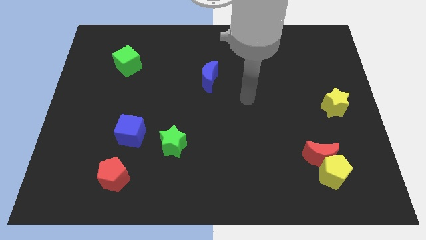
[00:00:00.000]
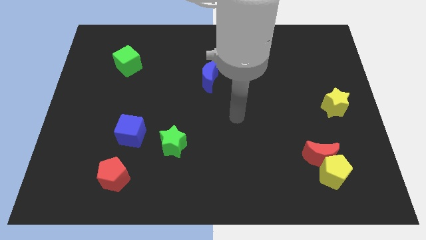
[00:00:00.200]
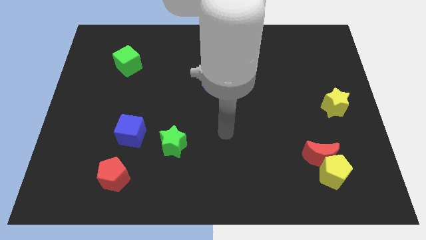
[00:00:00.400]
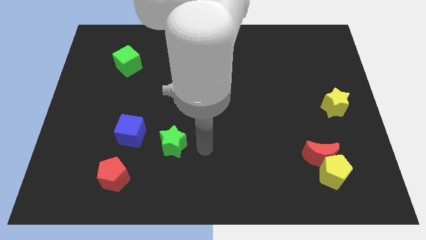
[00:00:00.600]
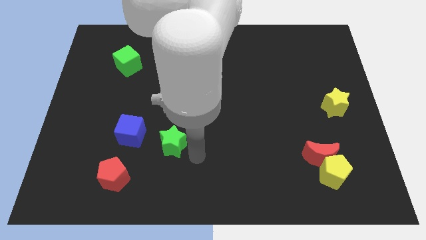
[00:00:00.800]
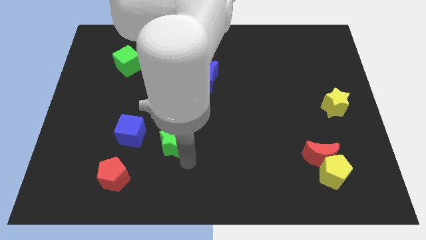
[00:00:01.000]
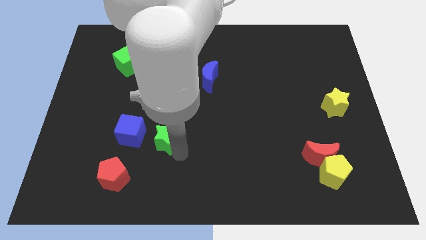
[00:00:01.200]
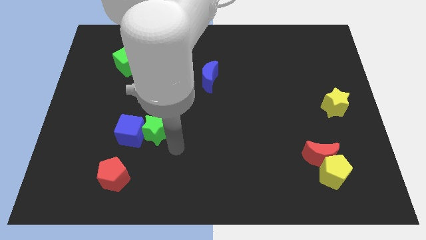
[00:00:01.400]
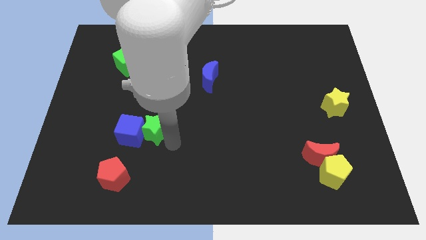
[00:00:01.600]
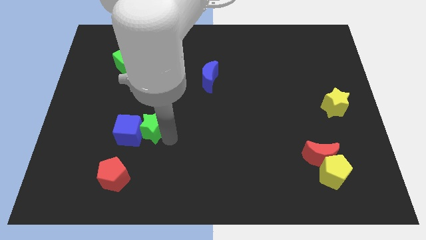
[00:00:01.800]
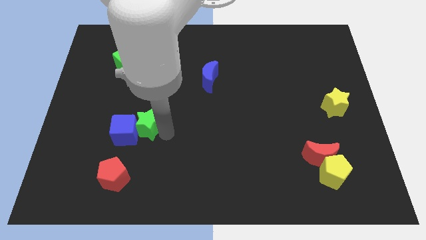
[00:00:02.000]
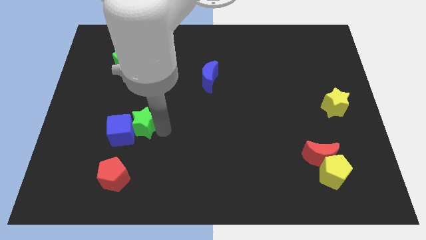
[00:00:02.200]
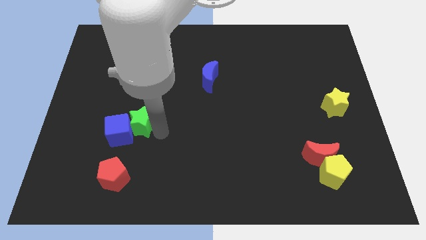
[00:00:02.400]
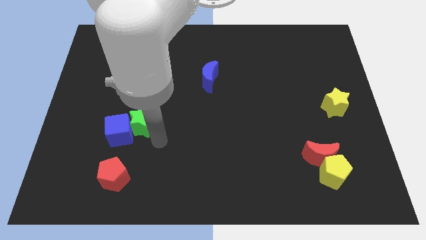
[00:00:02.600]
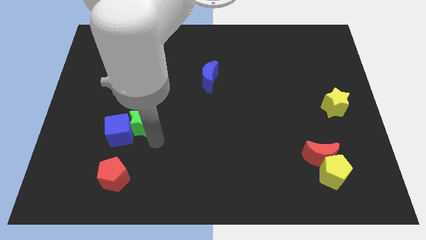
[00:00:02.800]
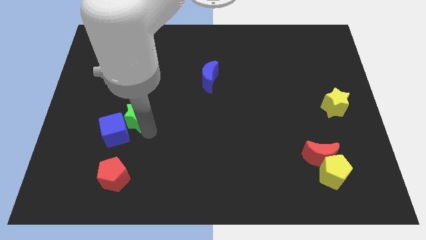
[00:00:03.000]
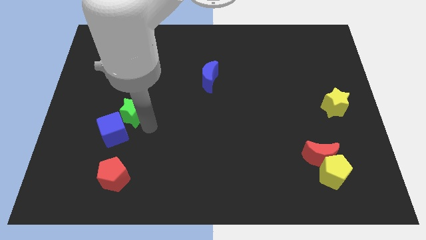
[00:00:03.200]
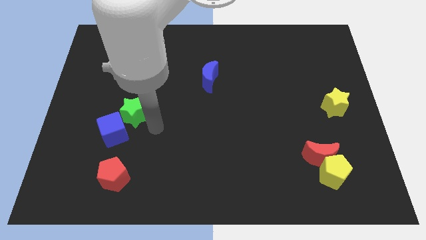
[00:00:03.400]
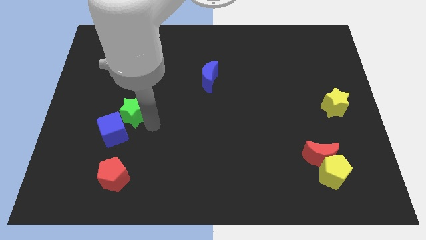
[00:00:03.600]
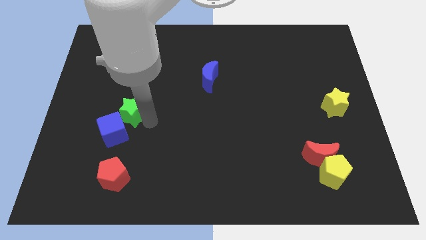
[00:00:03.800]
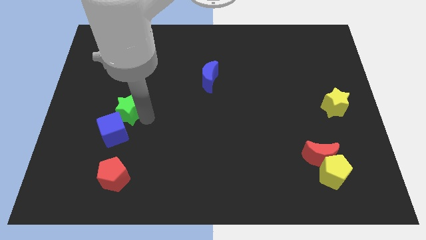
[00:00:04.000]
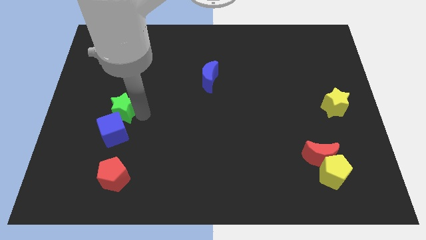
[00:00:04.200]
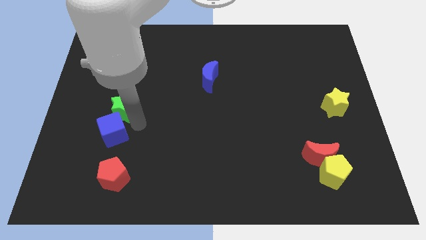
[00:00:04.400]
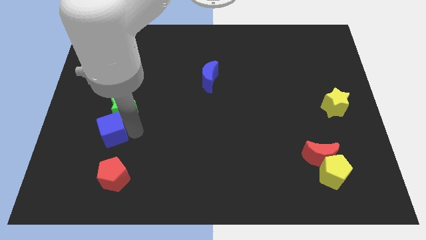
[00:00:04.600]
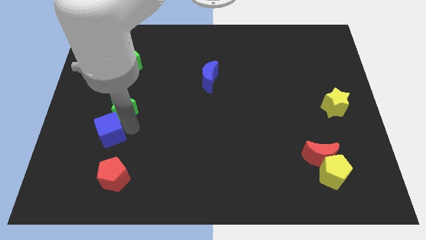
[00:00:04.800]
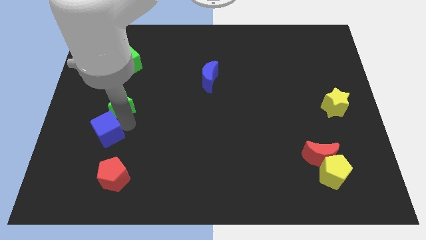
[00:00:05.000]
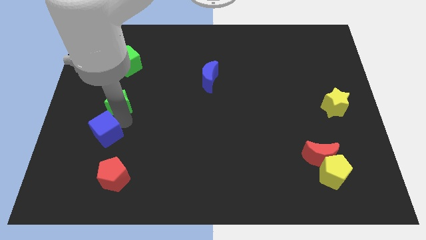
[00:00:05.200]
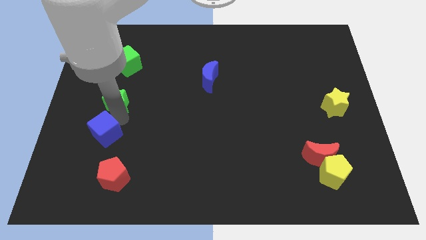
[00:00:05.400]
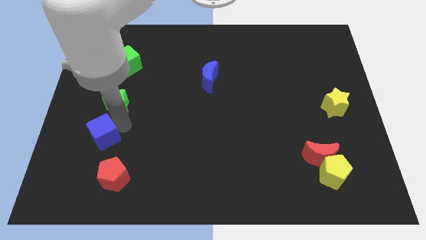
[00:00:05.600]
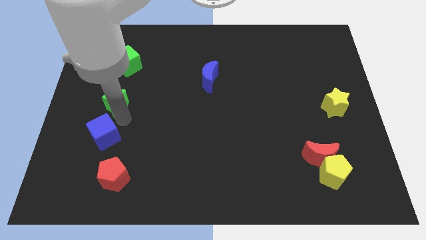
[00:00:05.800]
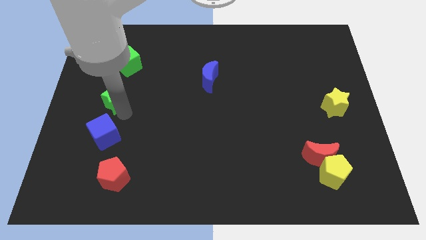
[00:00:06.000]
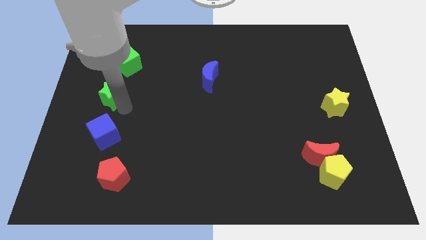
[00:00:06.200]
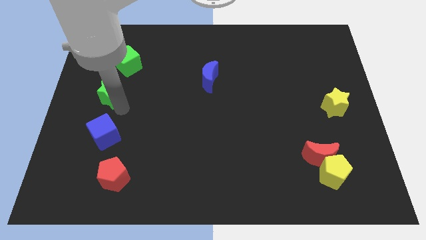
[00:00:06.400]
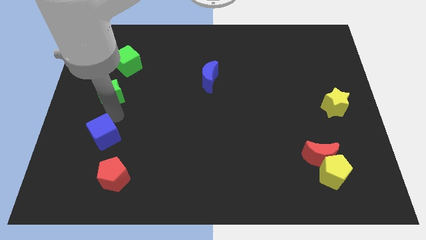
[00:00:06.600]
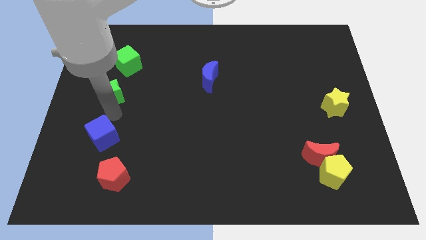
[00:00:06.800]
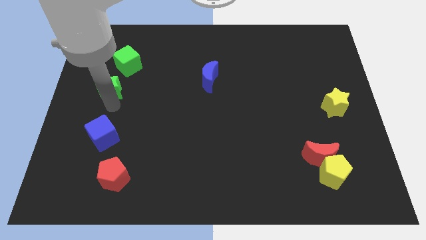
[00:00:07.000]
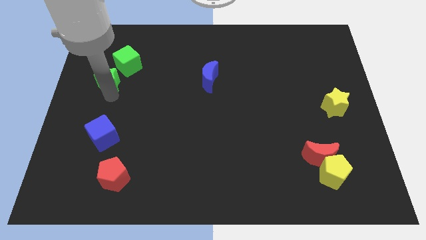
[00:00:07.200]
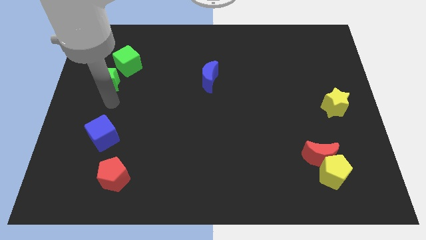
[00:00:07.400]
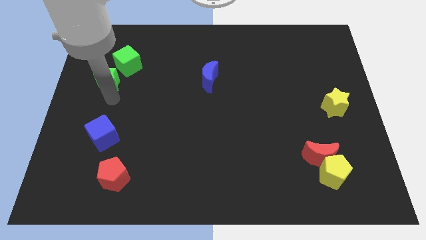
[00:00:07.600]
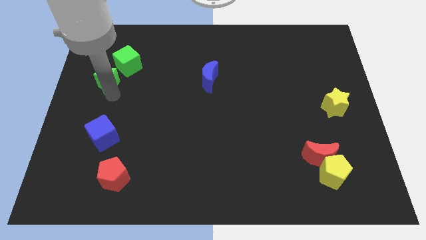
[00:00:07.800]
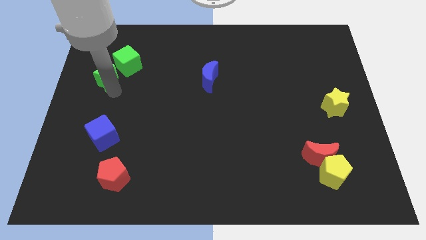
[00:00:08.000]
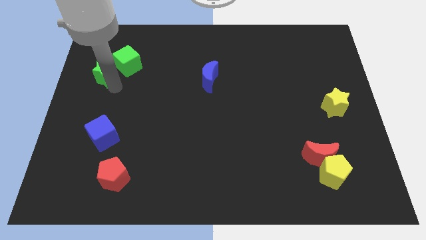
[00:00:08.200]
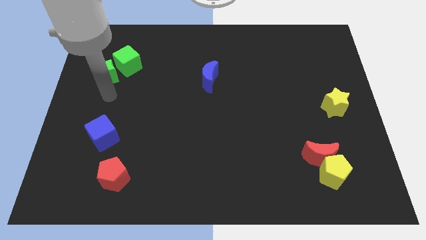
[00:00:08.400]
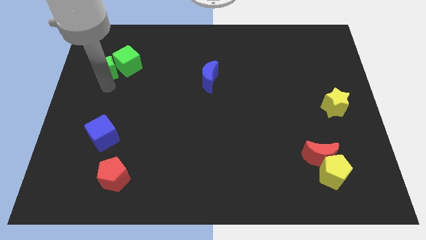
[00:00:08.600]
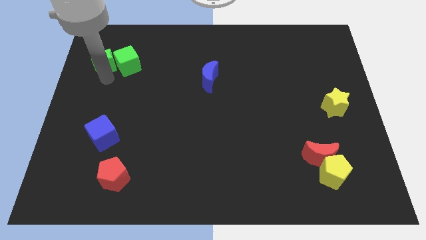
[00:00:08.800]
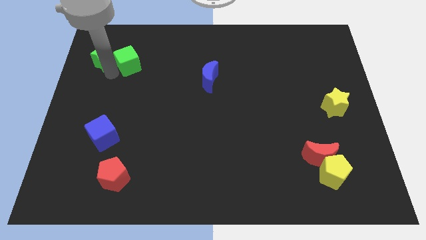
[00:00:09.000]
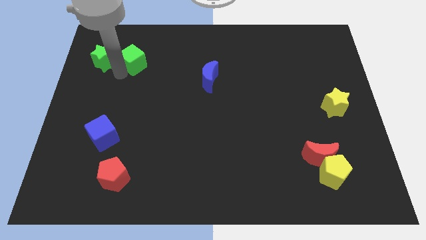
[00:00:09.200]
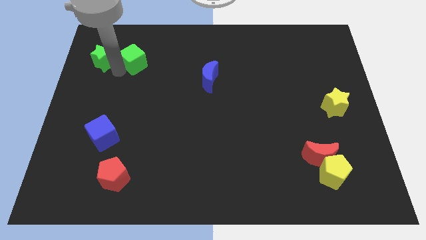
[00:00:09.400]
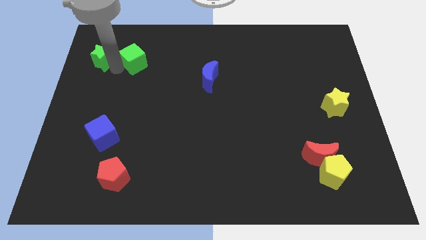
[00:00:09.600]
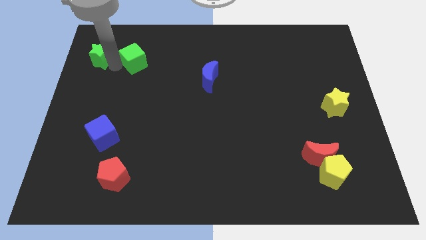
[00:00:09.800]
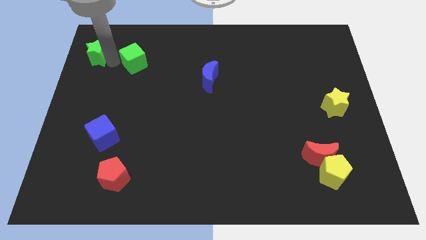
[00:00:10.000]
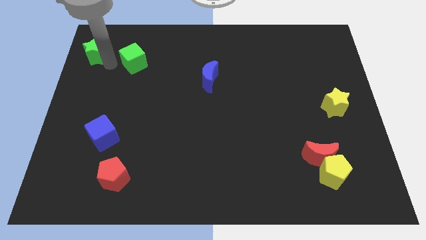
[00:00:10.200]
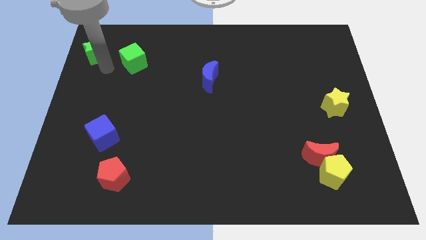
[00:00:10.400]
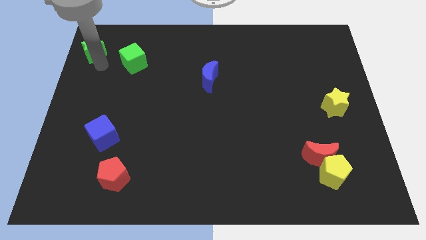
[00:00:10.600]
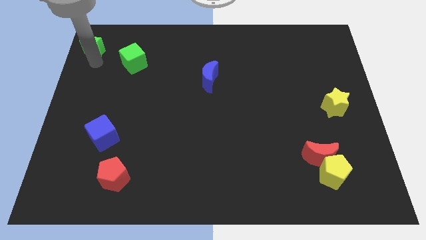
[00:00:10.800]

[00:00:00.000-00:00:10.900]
push the green star to the top left of the board

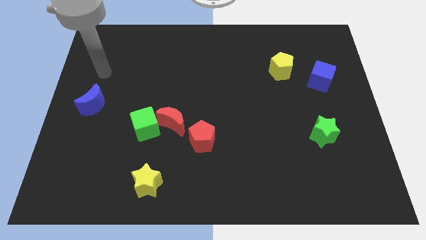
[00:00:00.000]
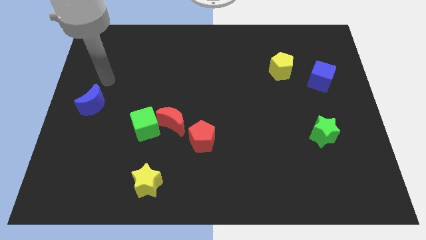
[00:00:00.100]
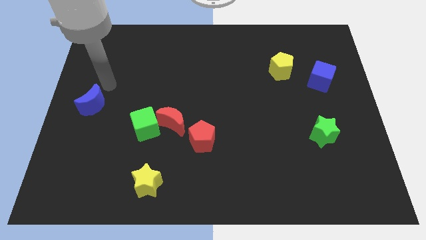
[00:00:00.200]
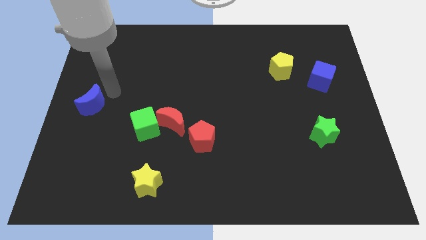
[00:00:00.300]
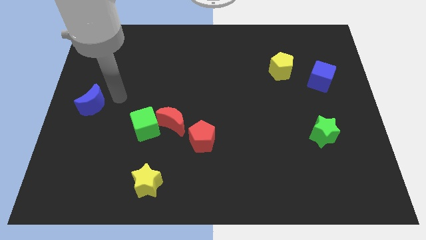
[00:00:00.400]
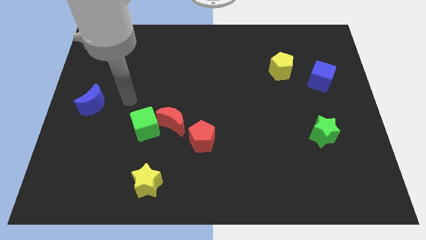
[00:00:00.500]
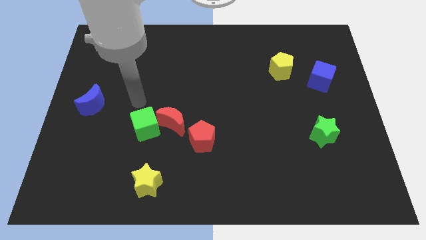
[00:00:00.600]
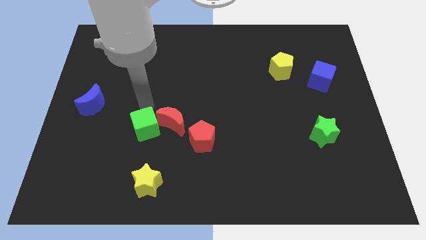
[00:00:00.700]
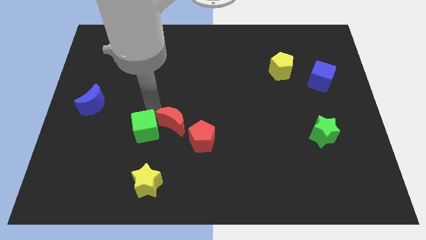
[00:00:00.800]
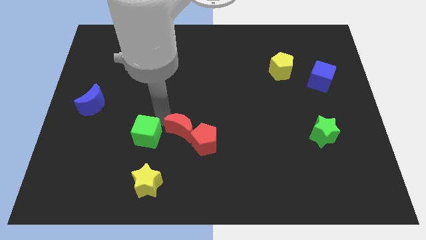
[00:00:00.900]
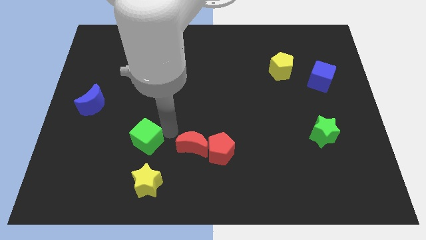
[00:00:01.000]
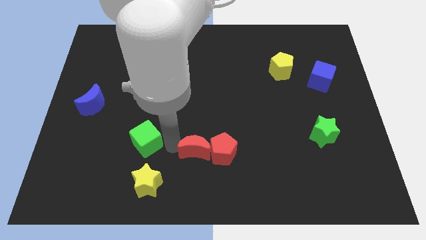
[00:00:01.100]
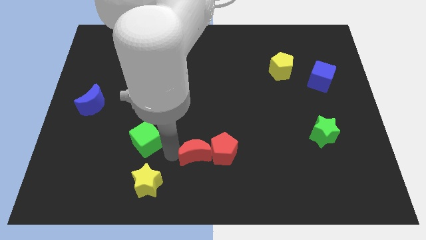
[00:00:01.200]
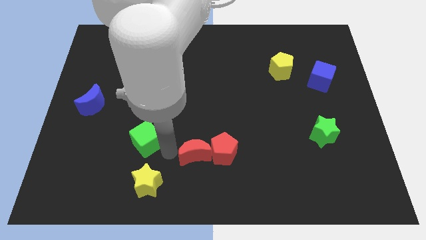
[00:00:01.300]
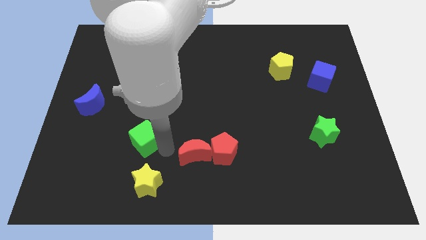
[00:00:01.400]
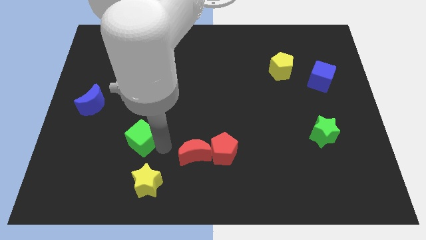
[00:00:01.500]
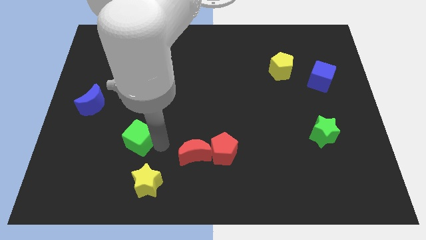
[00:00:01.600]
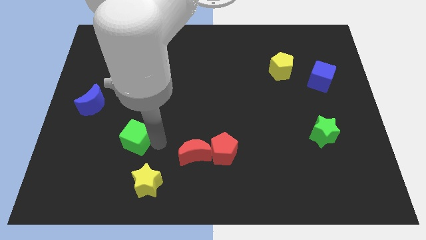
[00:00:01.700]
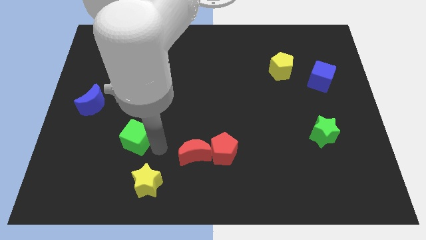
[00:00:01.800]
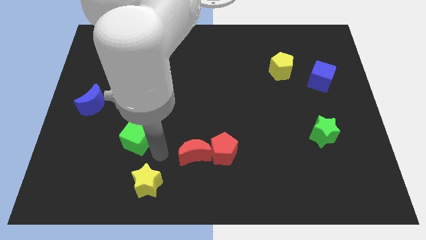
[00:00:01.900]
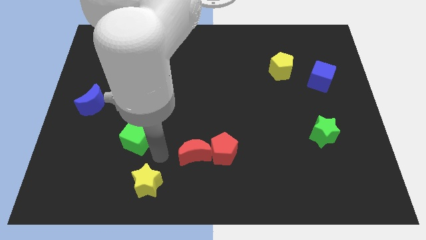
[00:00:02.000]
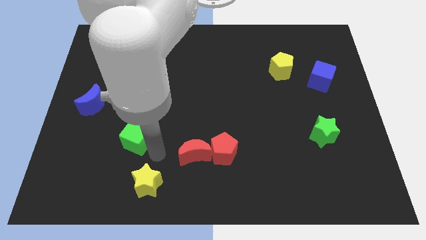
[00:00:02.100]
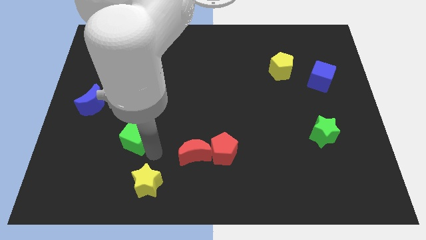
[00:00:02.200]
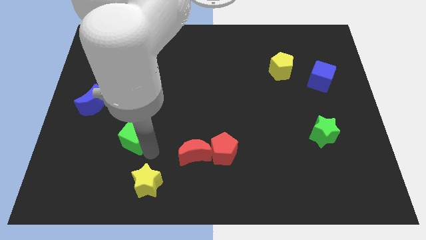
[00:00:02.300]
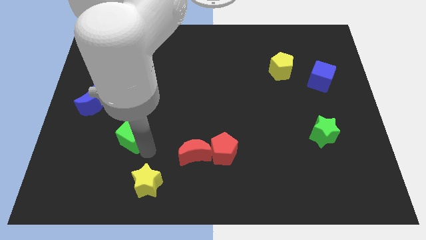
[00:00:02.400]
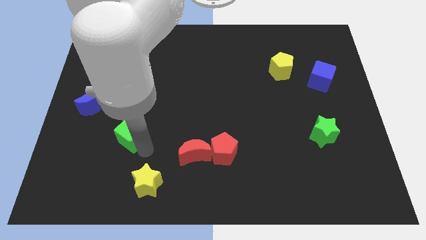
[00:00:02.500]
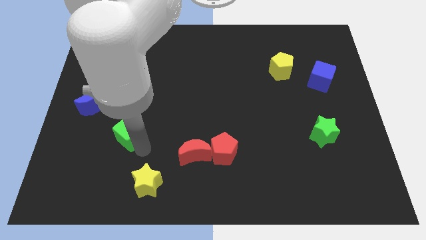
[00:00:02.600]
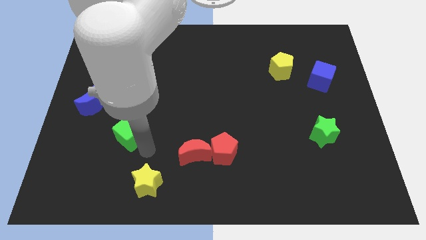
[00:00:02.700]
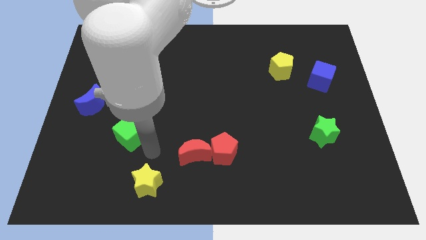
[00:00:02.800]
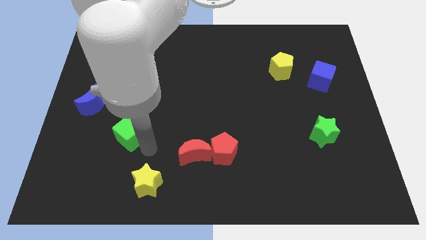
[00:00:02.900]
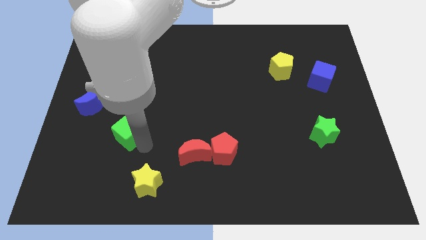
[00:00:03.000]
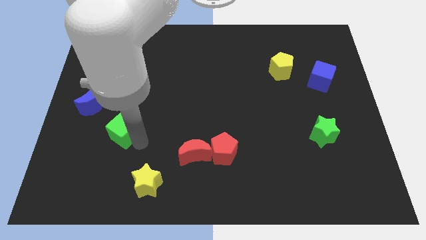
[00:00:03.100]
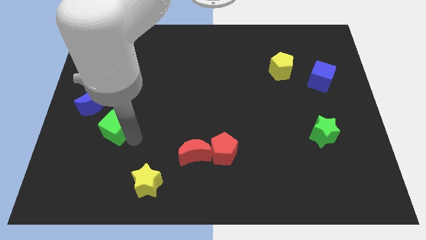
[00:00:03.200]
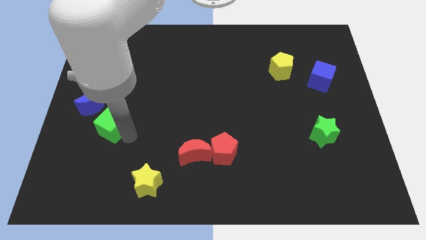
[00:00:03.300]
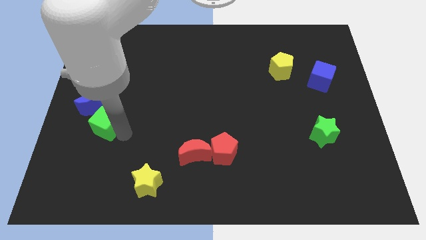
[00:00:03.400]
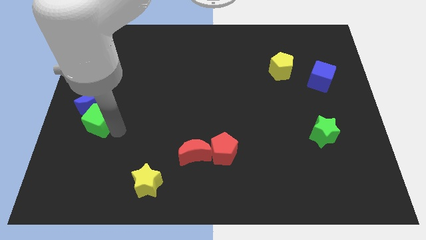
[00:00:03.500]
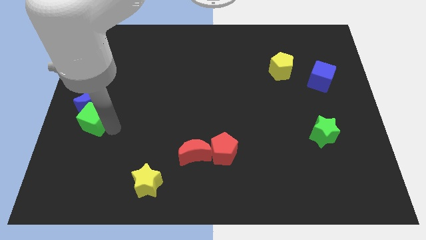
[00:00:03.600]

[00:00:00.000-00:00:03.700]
push the green cube to the left side of the board
